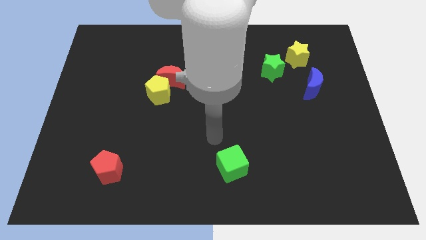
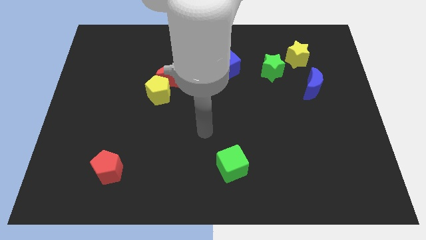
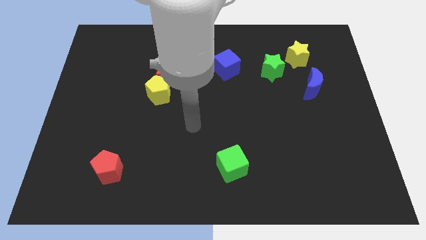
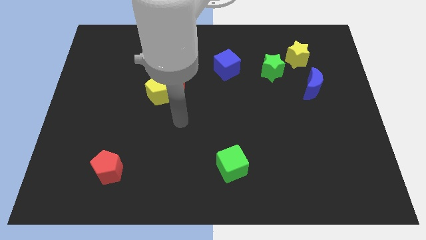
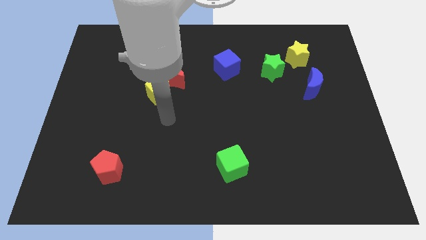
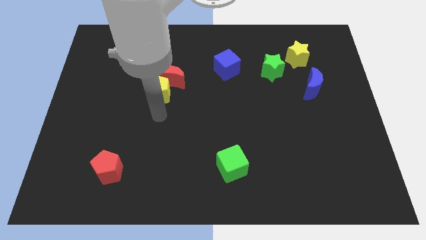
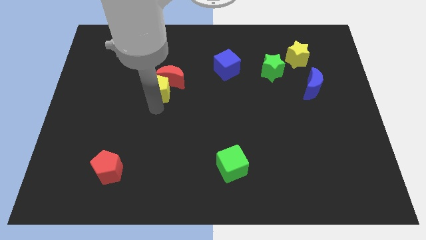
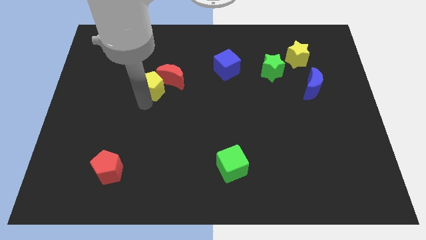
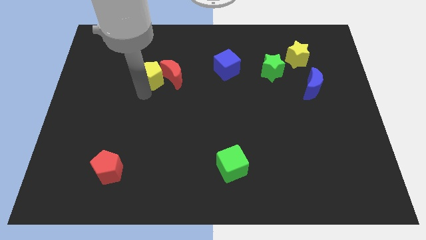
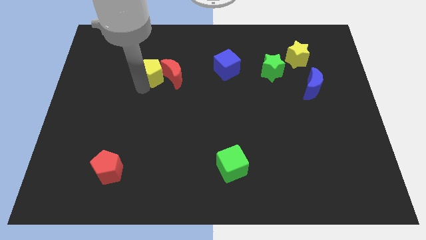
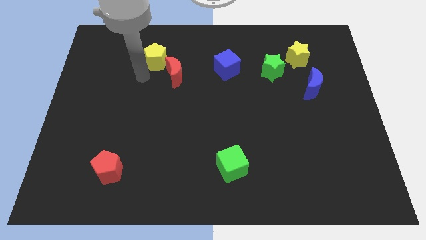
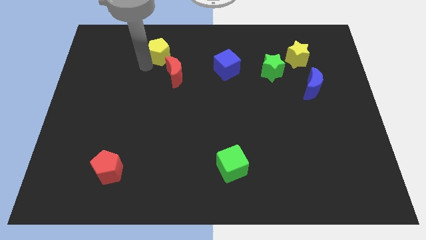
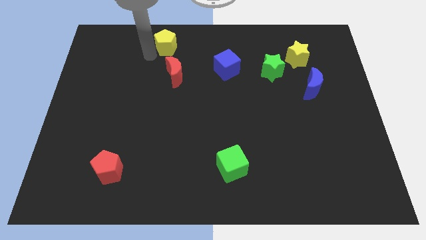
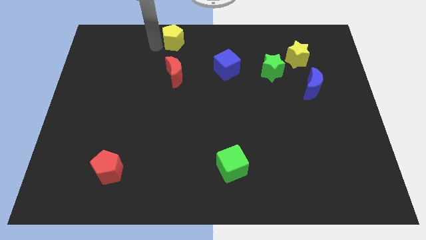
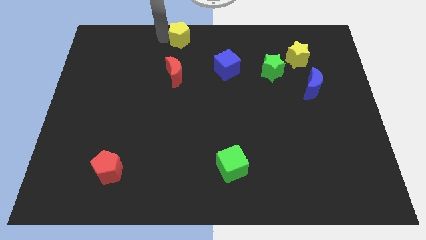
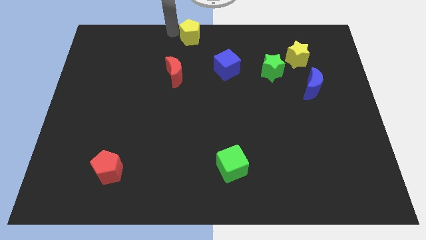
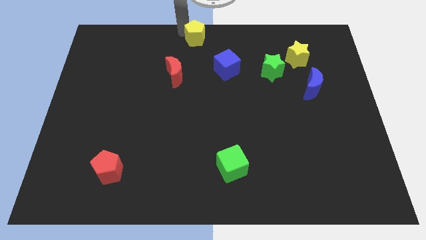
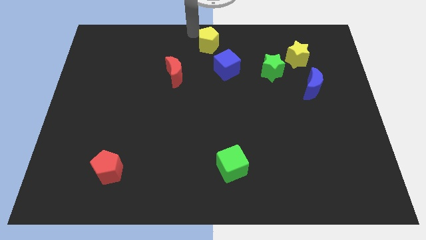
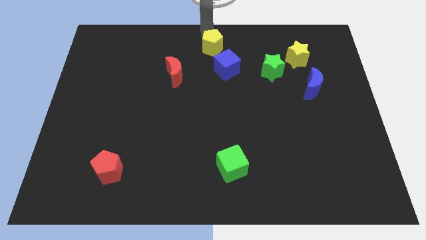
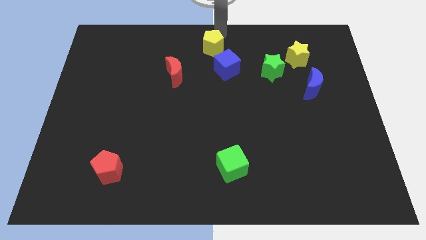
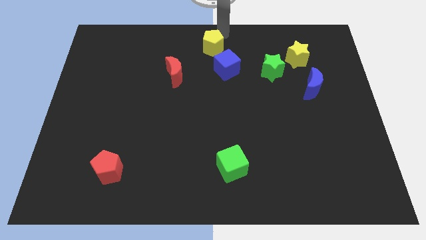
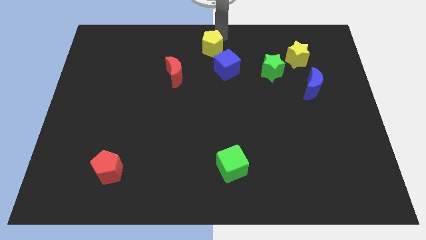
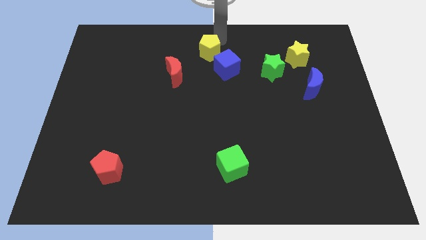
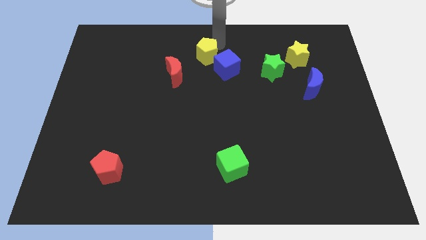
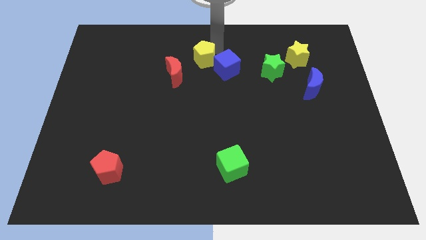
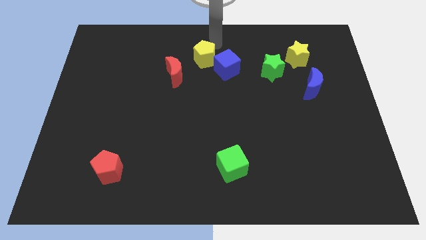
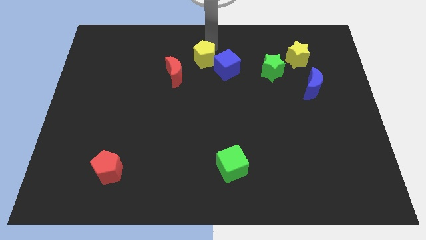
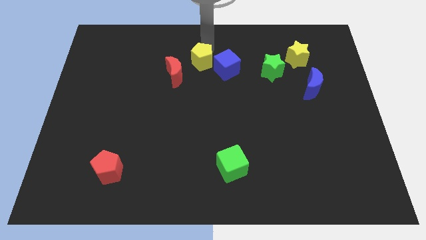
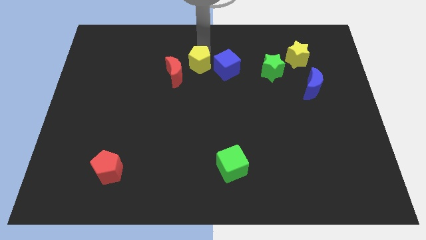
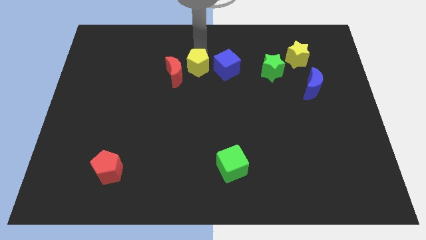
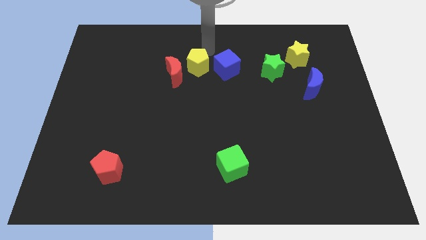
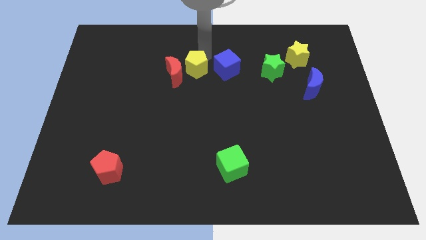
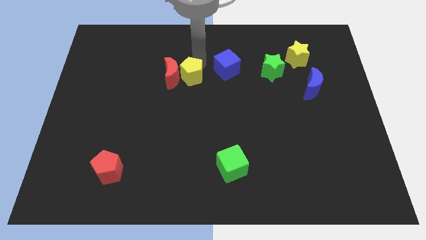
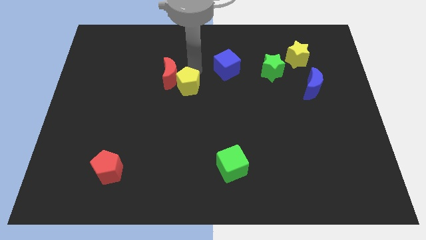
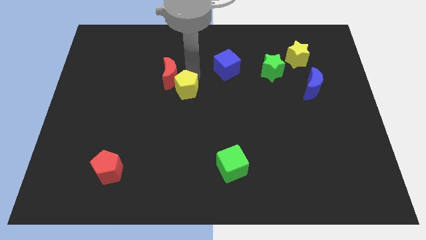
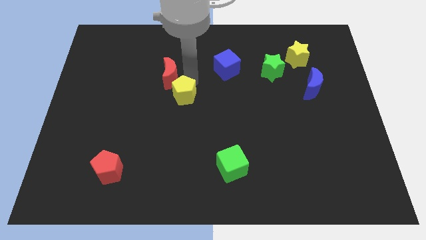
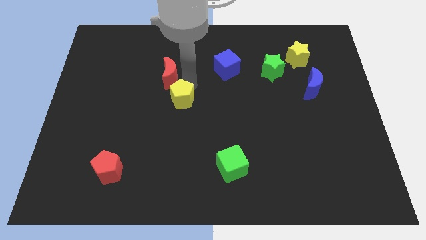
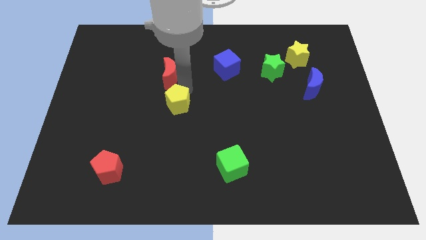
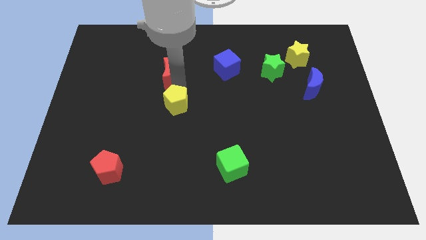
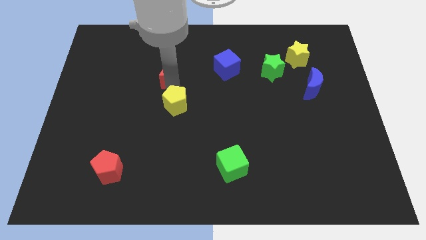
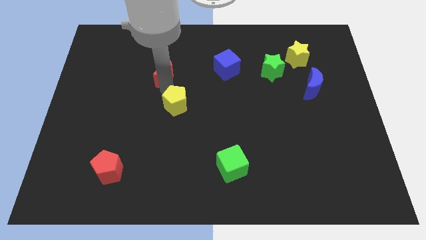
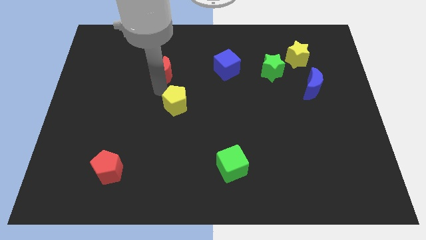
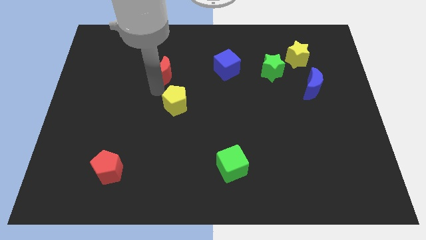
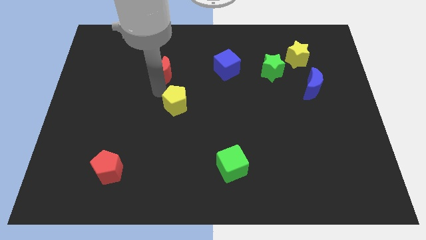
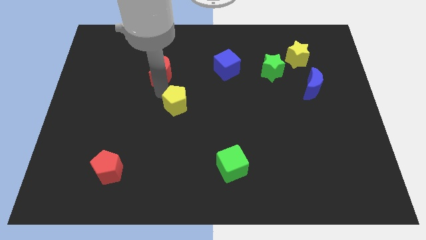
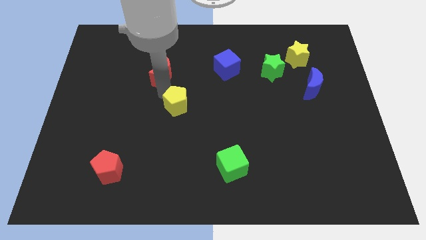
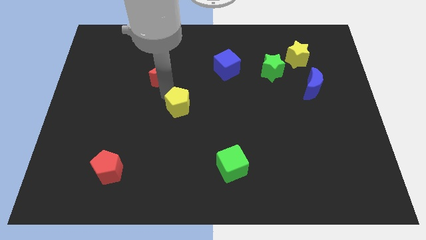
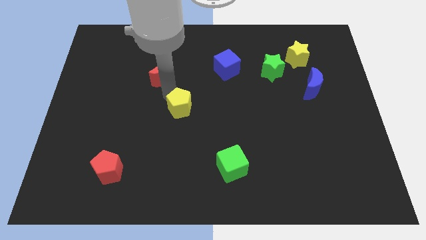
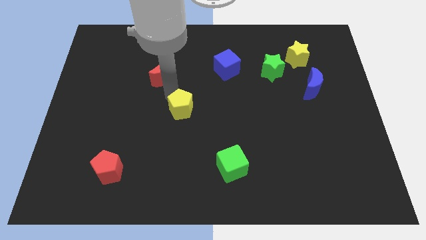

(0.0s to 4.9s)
move the yellow pentagon down and right a little bit

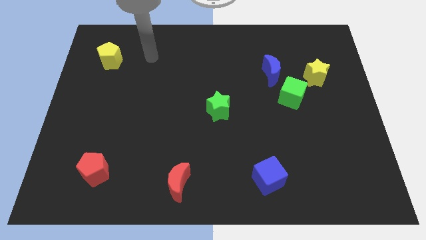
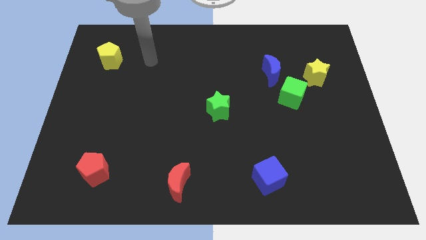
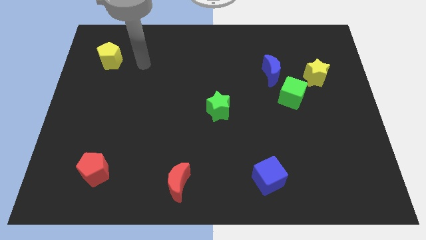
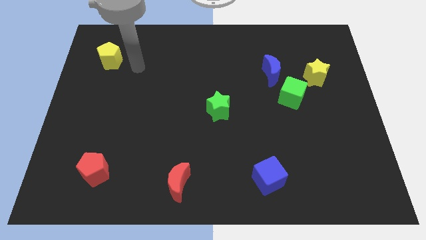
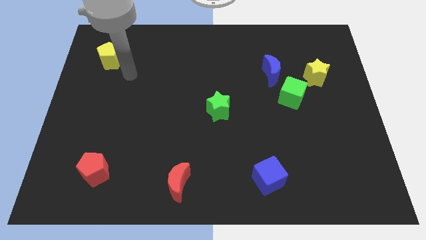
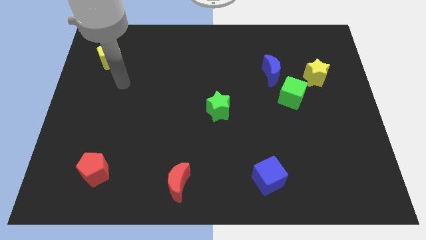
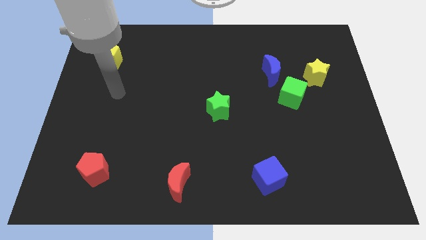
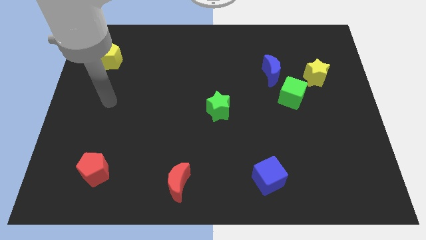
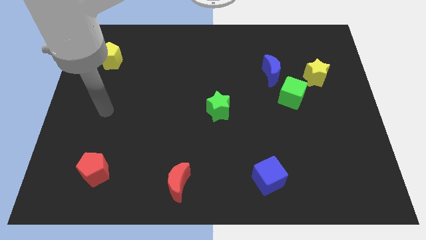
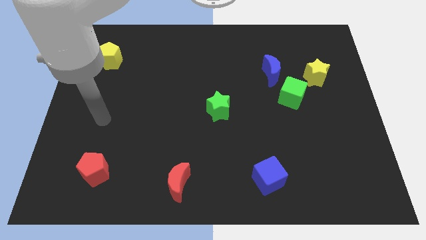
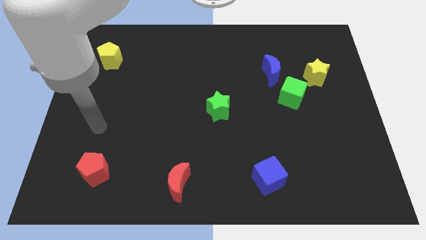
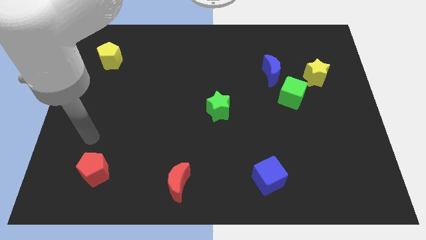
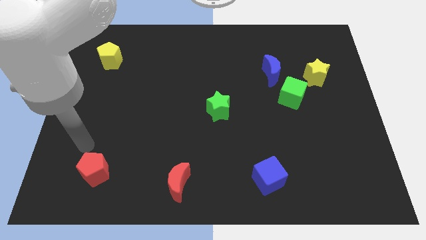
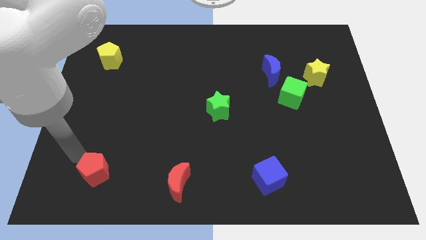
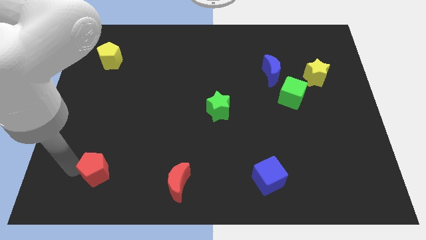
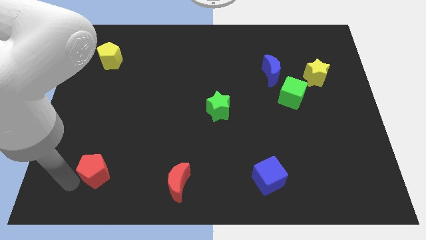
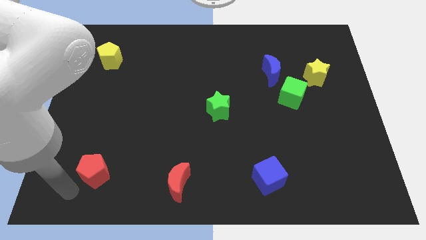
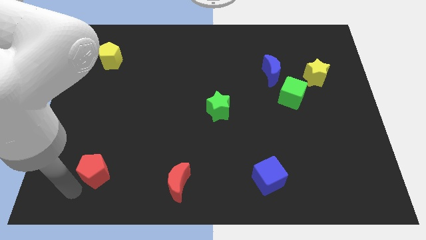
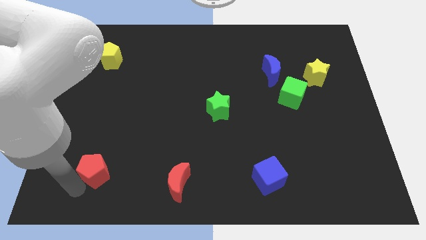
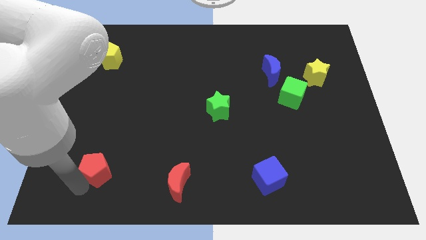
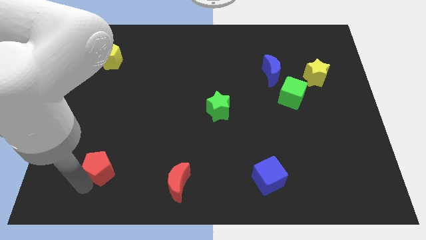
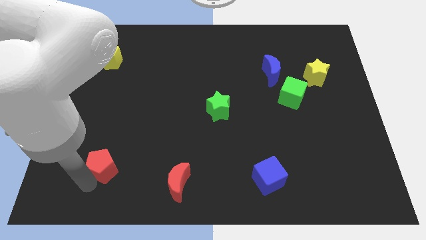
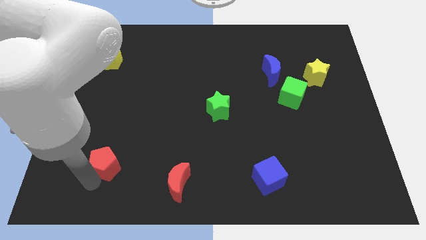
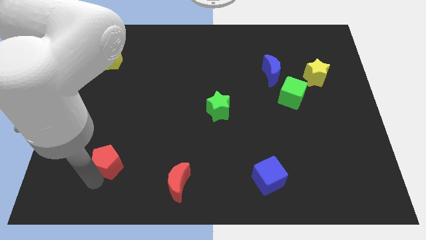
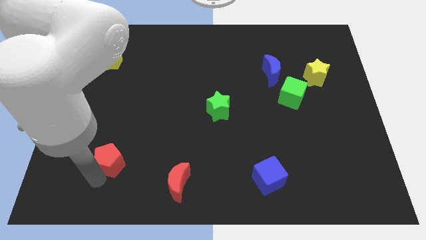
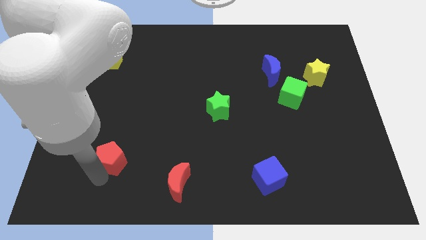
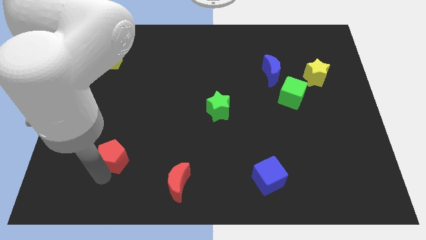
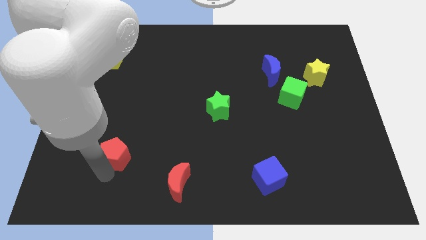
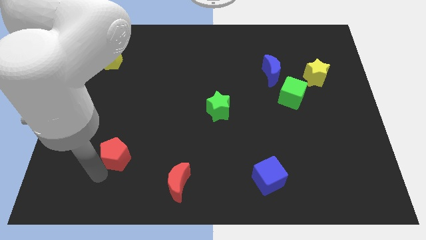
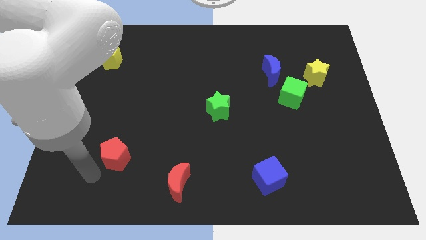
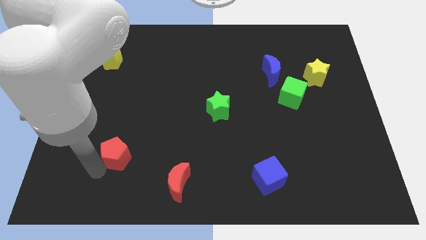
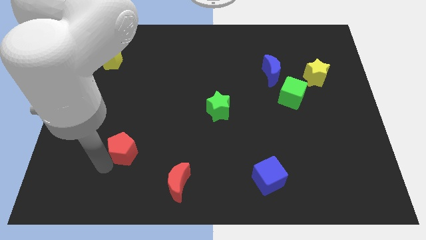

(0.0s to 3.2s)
move the red pentagon upwards and to the right a little
